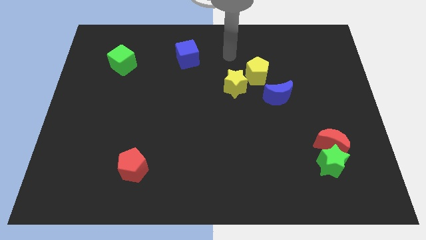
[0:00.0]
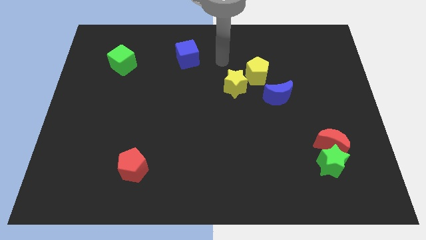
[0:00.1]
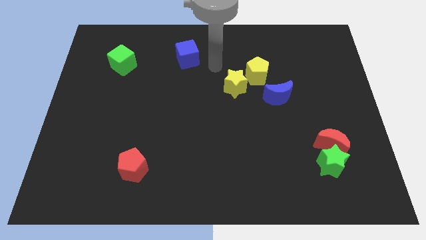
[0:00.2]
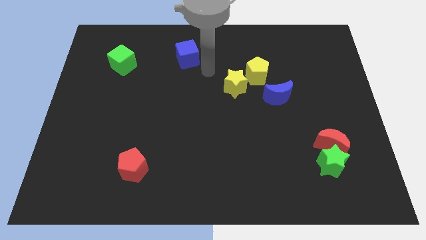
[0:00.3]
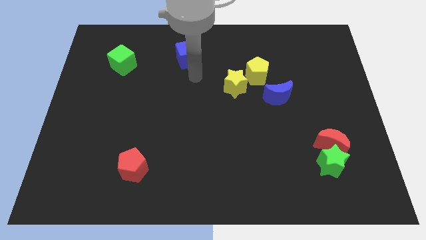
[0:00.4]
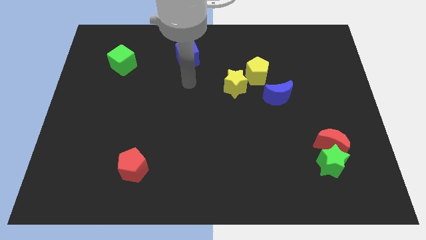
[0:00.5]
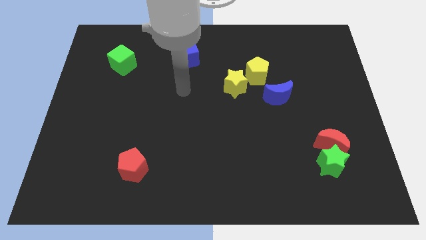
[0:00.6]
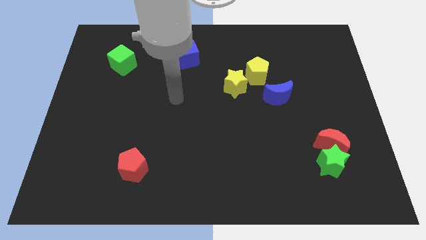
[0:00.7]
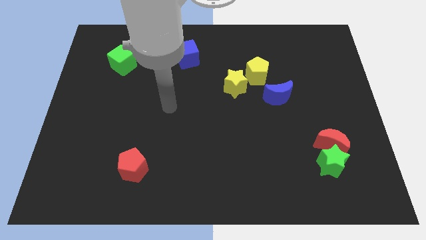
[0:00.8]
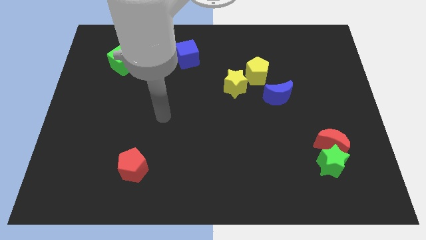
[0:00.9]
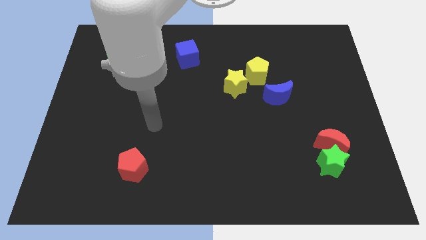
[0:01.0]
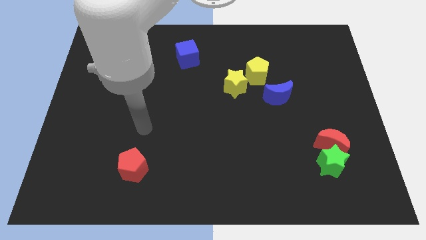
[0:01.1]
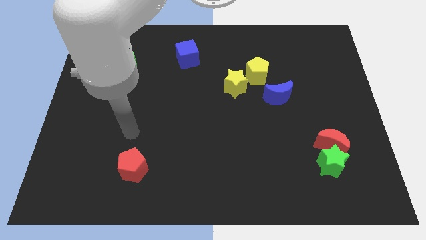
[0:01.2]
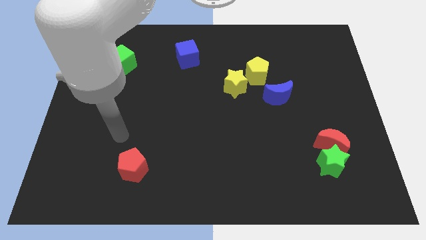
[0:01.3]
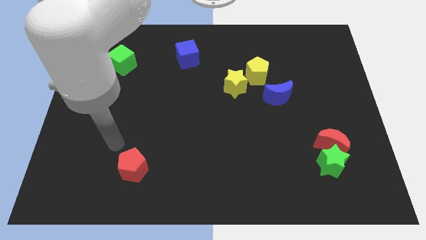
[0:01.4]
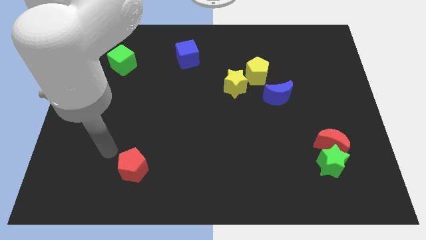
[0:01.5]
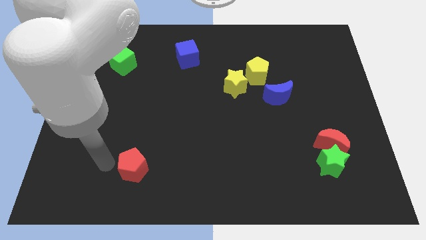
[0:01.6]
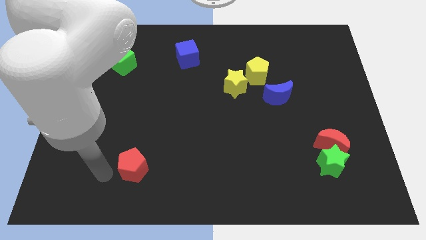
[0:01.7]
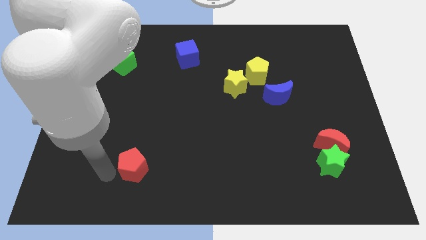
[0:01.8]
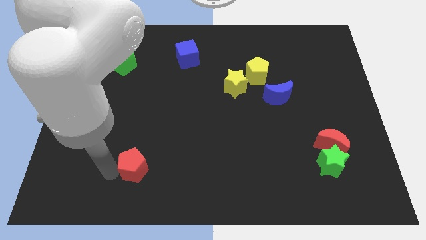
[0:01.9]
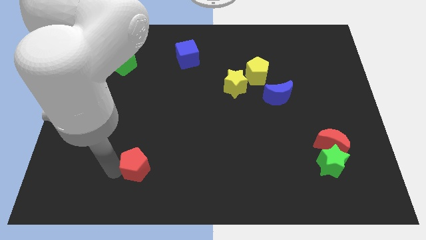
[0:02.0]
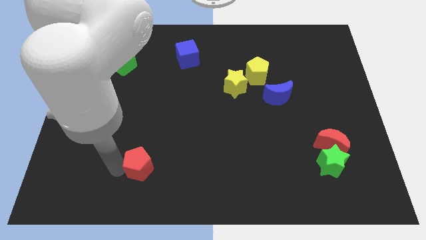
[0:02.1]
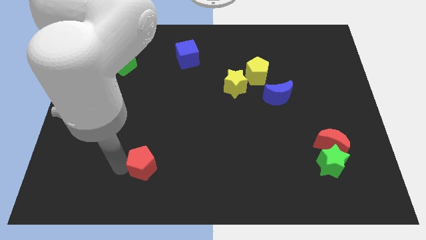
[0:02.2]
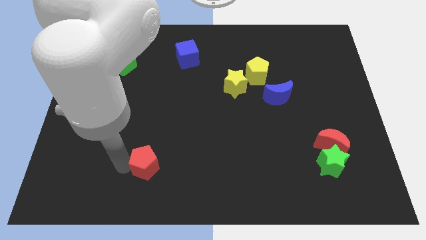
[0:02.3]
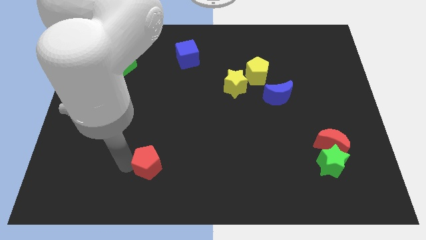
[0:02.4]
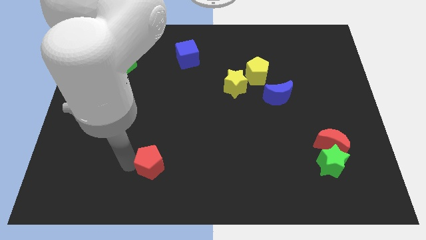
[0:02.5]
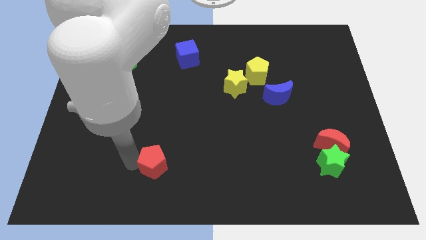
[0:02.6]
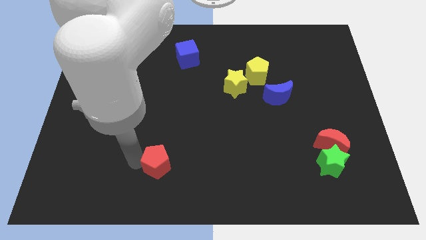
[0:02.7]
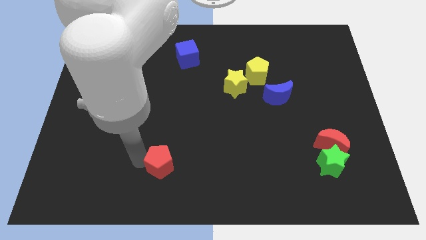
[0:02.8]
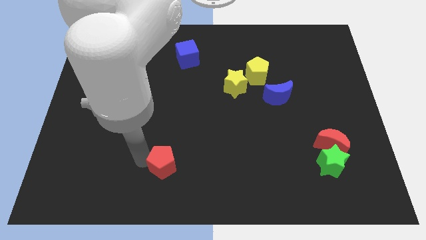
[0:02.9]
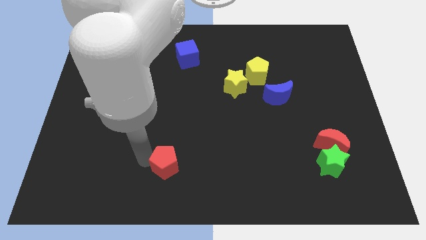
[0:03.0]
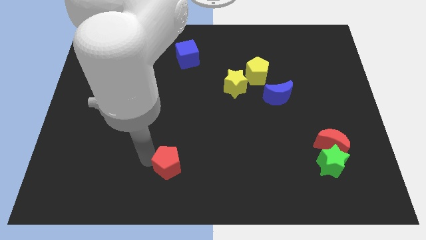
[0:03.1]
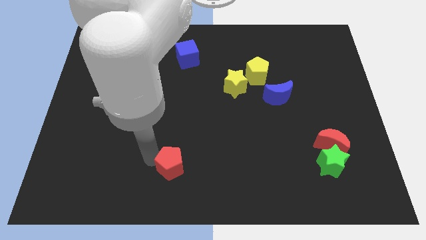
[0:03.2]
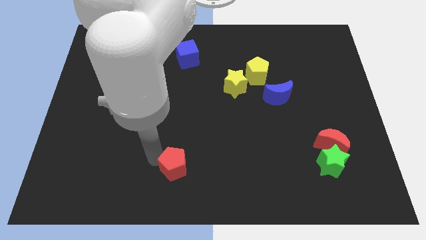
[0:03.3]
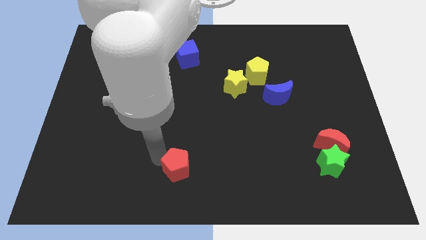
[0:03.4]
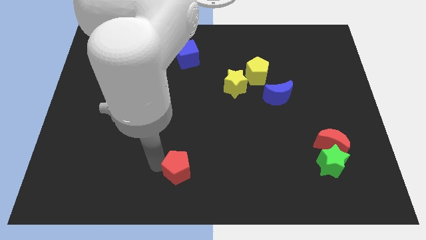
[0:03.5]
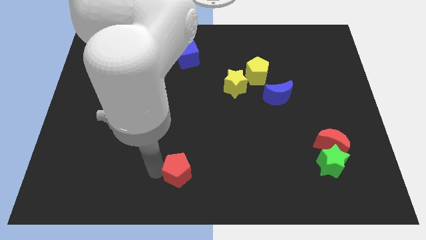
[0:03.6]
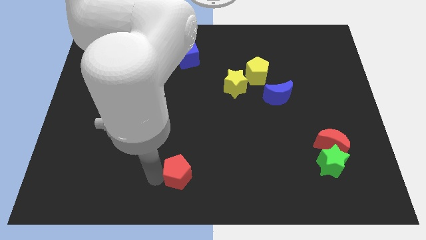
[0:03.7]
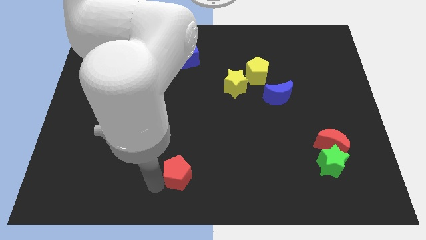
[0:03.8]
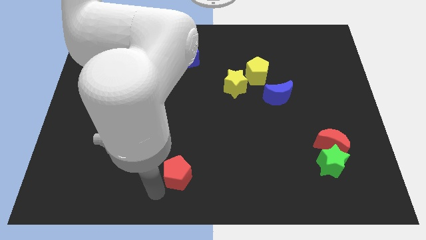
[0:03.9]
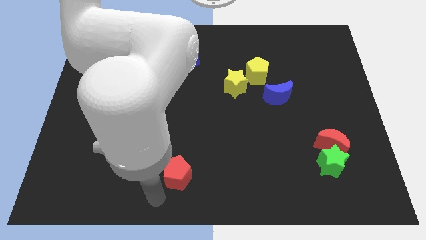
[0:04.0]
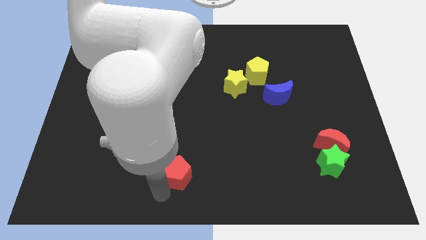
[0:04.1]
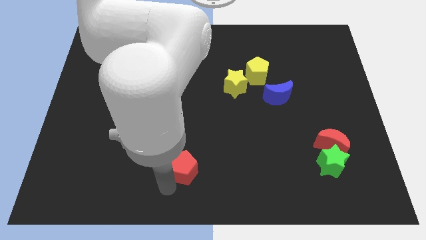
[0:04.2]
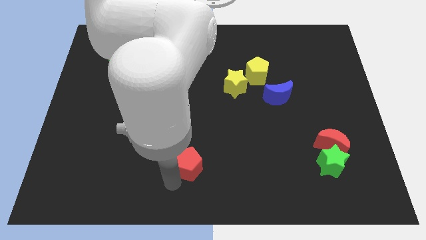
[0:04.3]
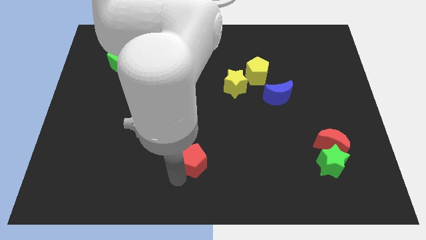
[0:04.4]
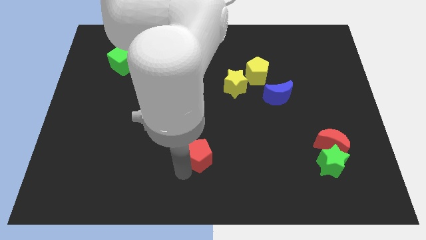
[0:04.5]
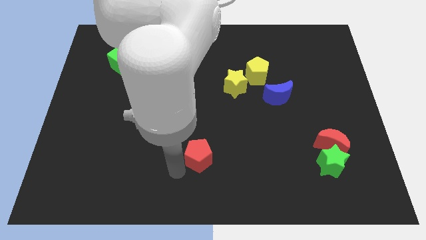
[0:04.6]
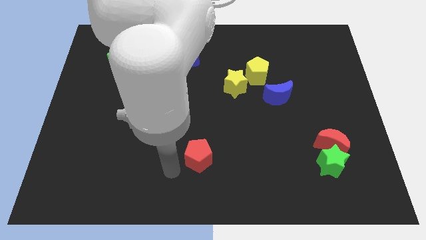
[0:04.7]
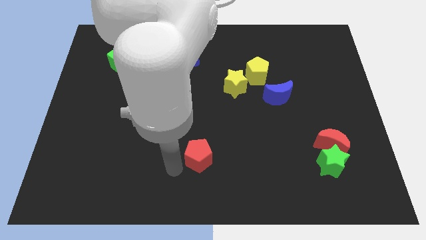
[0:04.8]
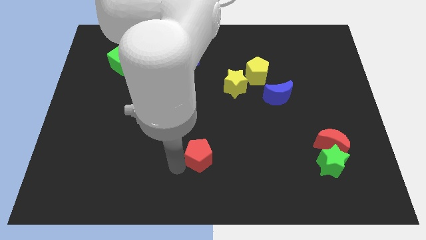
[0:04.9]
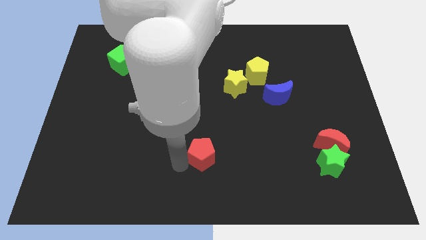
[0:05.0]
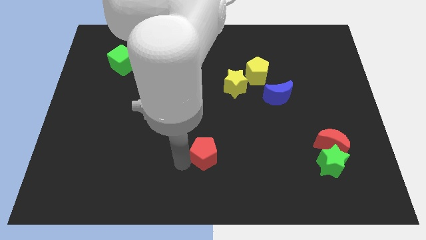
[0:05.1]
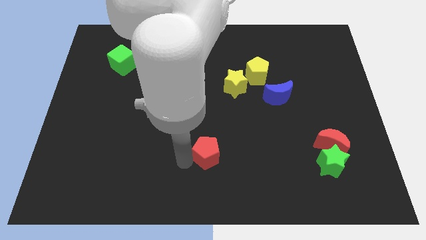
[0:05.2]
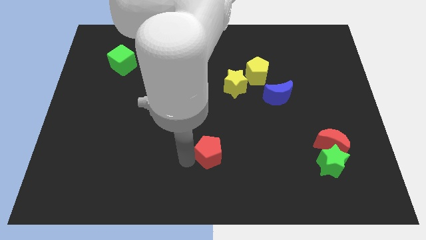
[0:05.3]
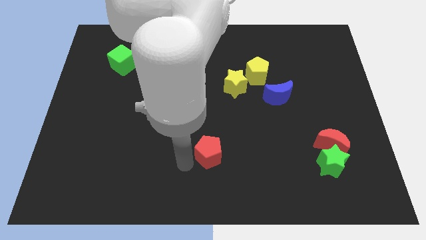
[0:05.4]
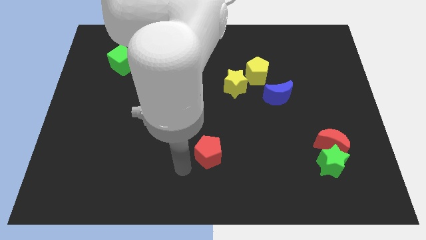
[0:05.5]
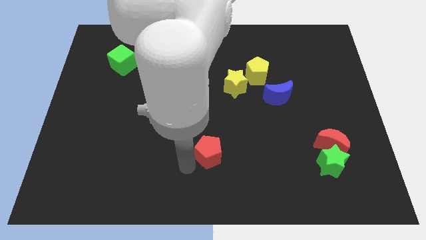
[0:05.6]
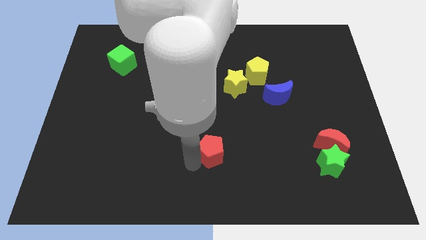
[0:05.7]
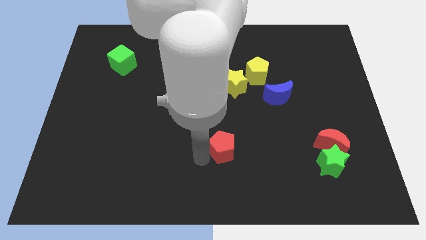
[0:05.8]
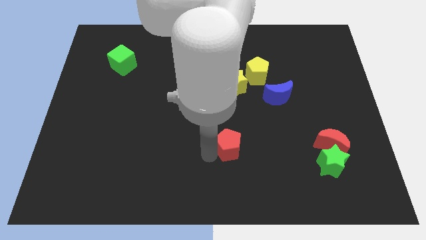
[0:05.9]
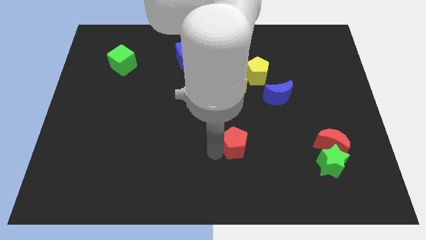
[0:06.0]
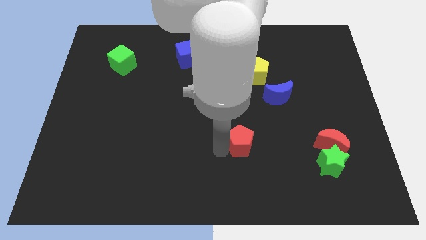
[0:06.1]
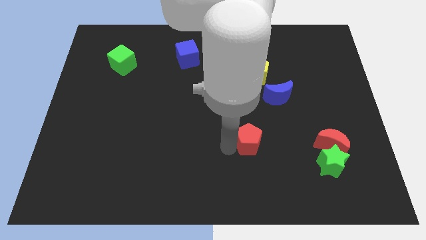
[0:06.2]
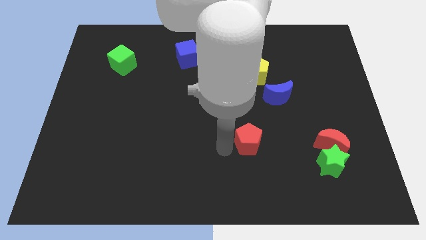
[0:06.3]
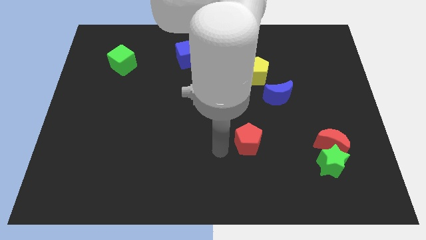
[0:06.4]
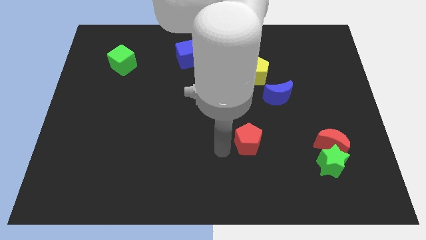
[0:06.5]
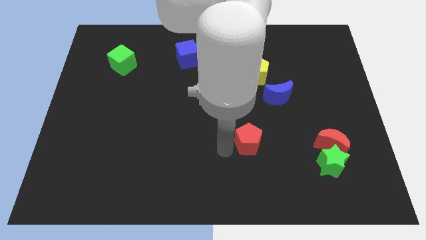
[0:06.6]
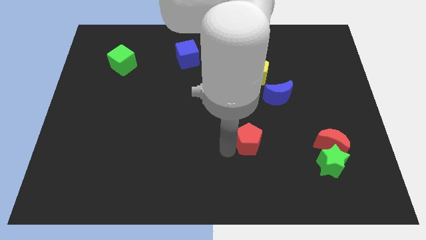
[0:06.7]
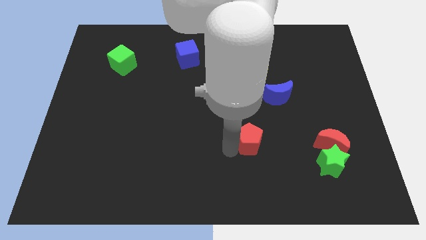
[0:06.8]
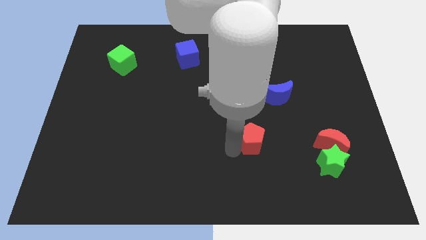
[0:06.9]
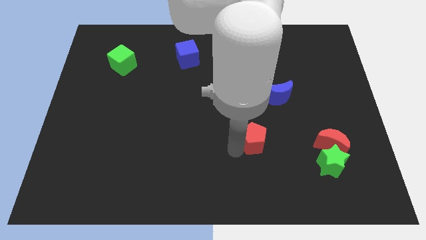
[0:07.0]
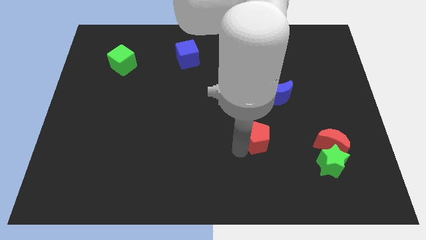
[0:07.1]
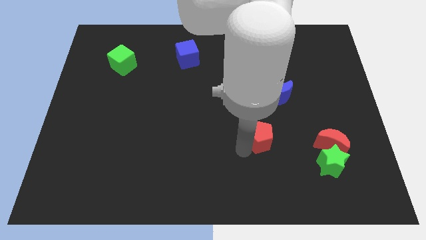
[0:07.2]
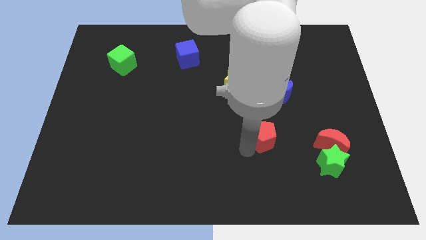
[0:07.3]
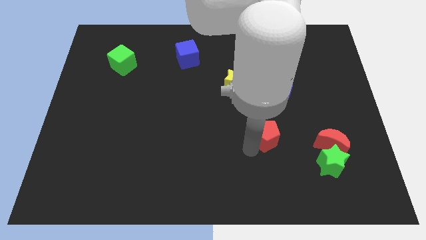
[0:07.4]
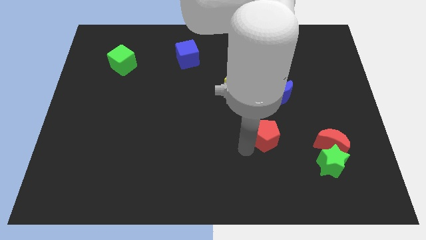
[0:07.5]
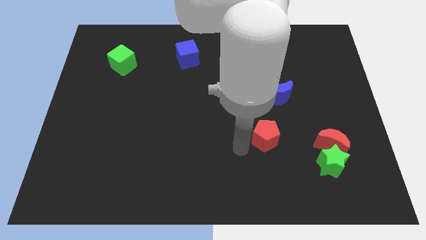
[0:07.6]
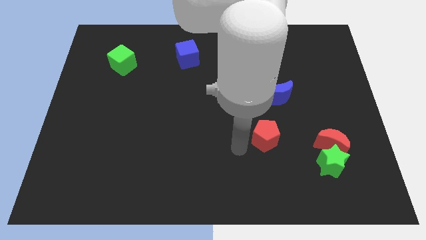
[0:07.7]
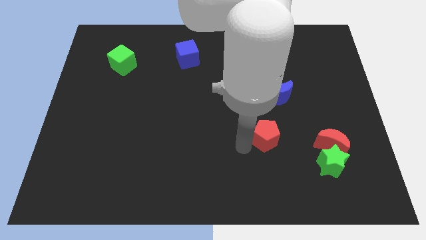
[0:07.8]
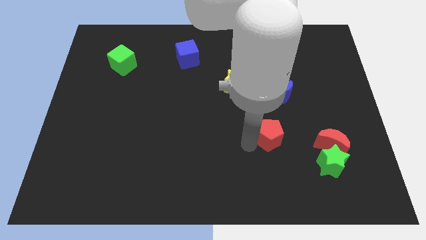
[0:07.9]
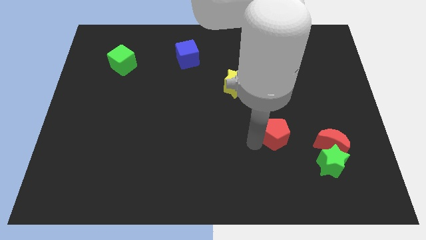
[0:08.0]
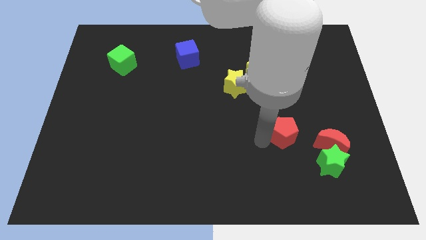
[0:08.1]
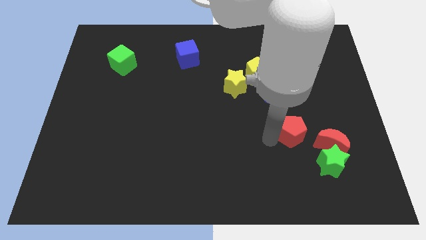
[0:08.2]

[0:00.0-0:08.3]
move the red pentagon diagonally up and to the left of the red moon
